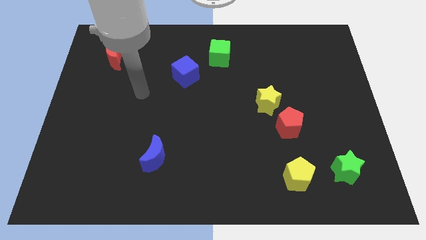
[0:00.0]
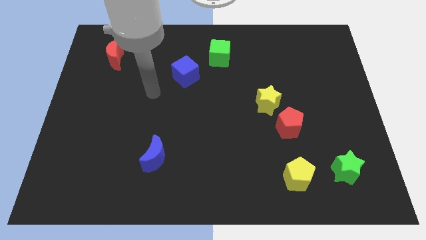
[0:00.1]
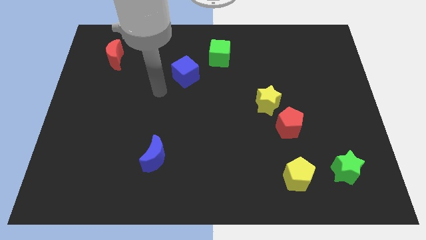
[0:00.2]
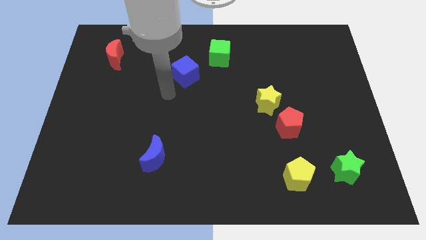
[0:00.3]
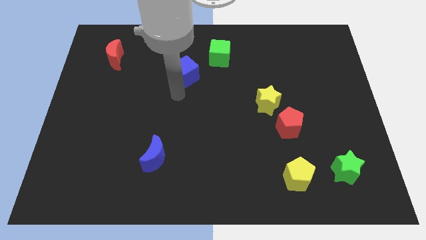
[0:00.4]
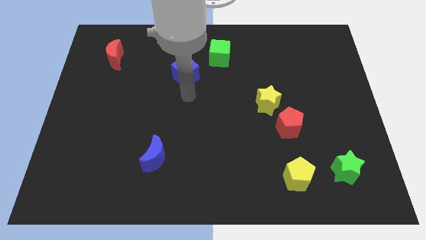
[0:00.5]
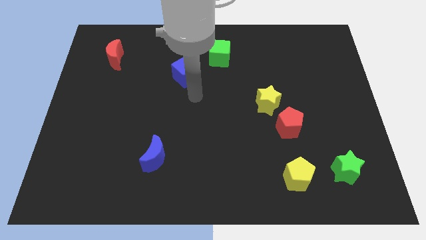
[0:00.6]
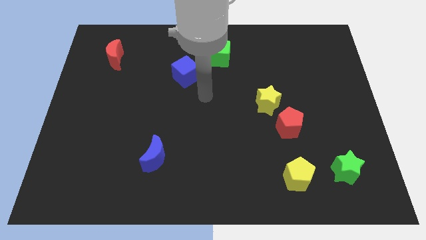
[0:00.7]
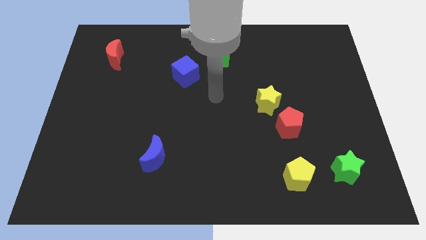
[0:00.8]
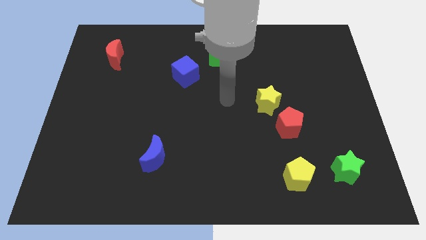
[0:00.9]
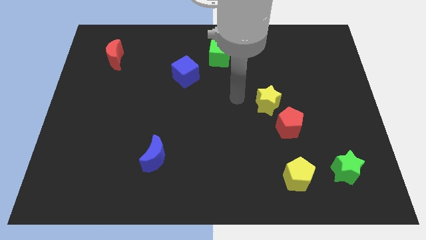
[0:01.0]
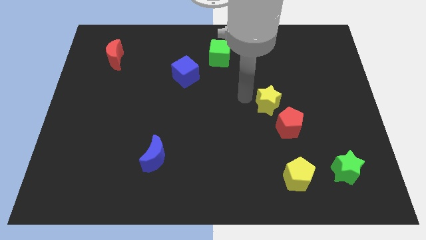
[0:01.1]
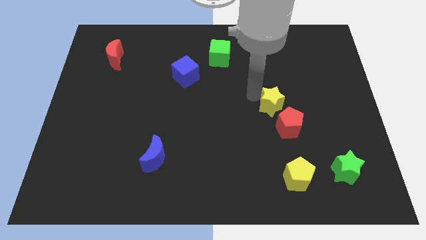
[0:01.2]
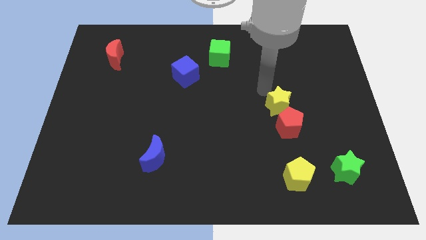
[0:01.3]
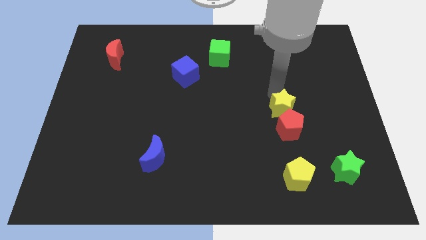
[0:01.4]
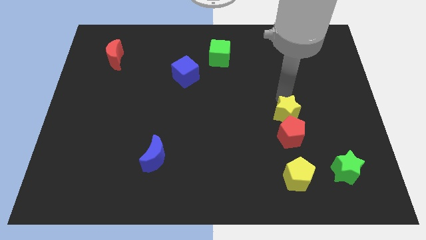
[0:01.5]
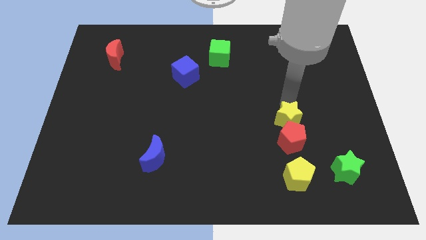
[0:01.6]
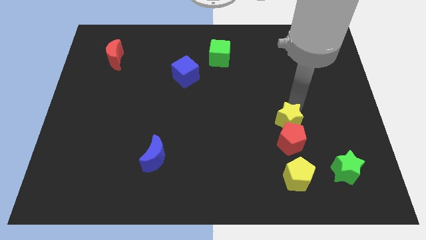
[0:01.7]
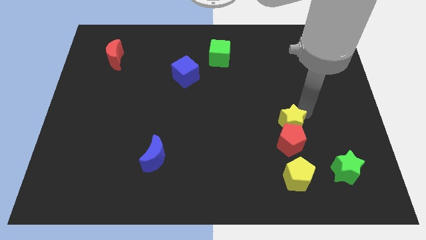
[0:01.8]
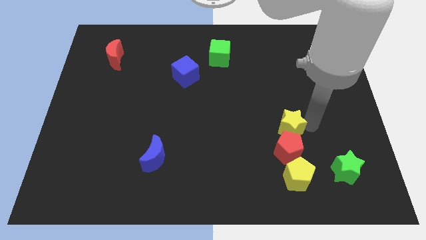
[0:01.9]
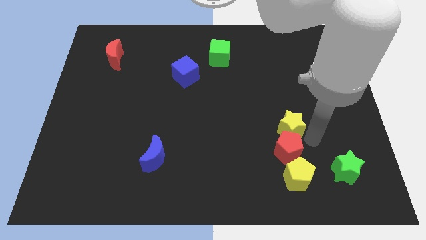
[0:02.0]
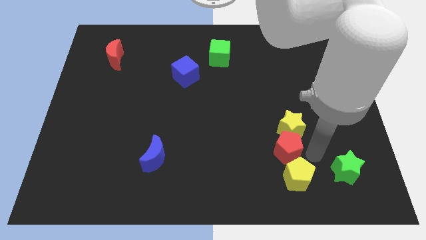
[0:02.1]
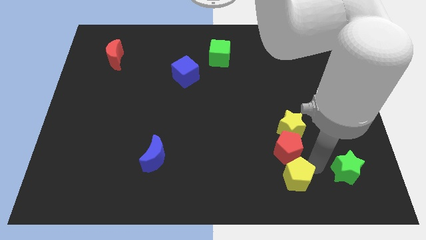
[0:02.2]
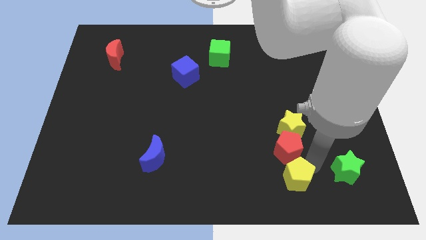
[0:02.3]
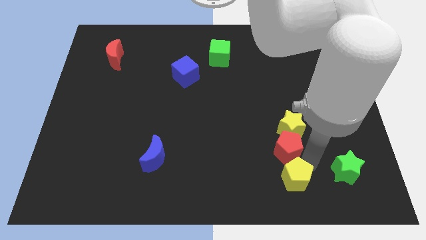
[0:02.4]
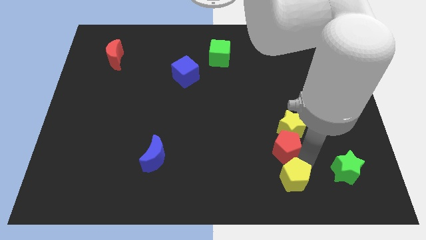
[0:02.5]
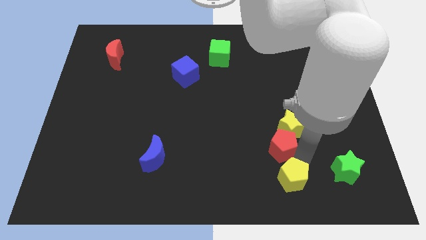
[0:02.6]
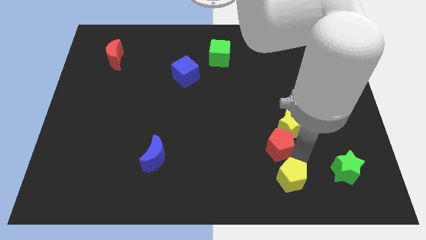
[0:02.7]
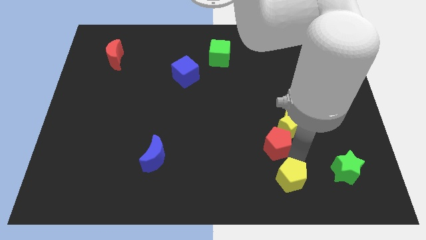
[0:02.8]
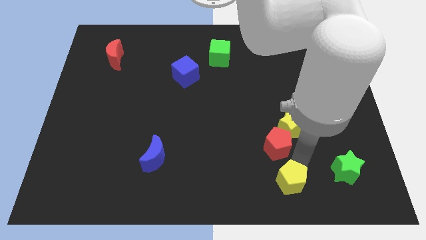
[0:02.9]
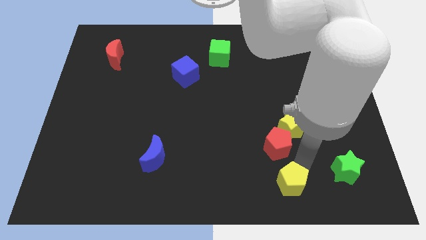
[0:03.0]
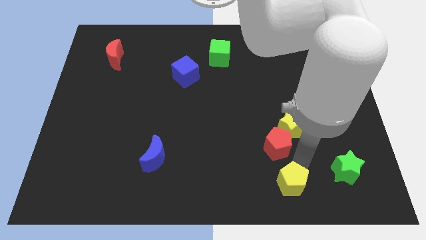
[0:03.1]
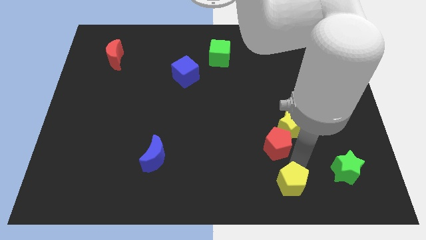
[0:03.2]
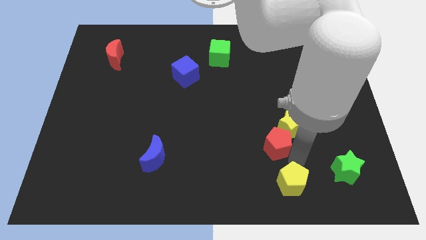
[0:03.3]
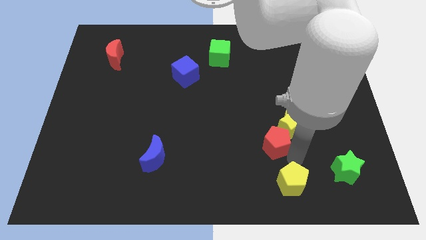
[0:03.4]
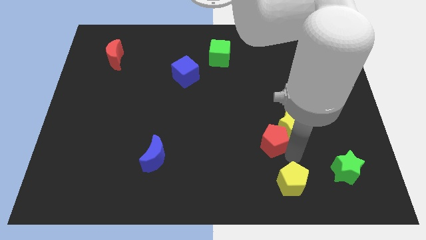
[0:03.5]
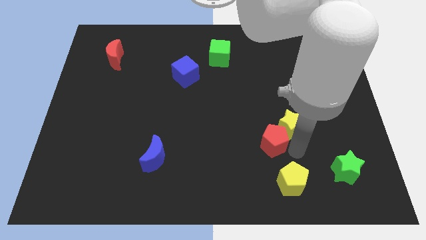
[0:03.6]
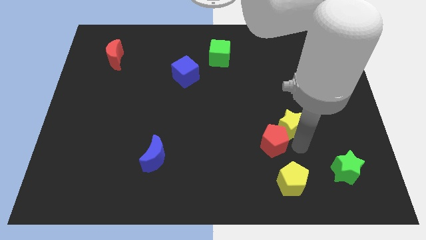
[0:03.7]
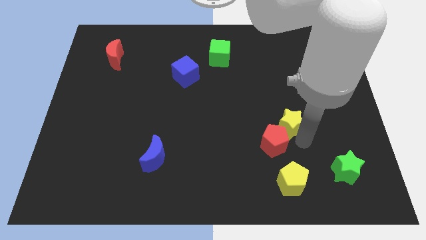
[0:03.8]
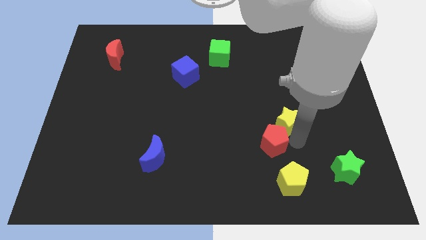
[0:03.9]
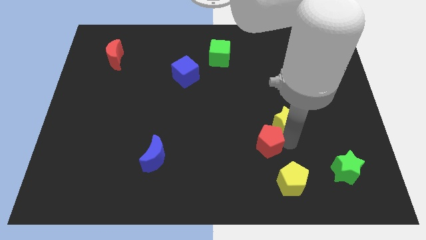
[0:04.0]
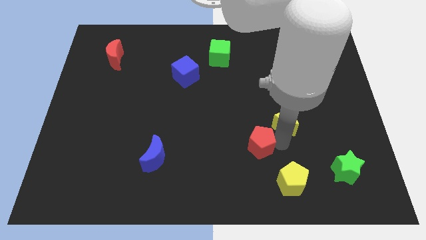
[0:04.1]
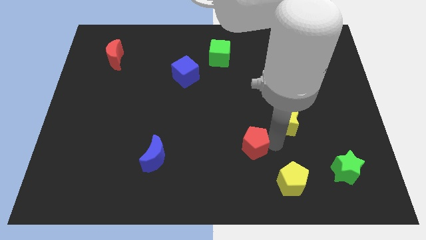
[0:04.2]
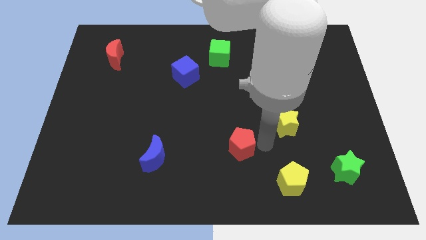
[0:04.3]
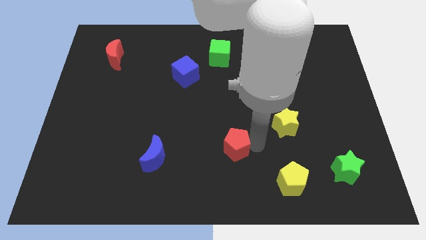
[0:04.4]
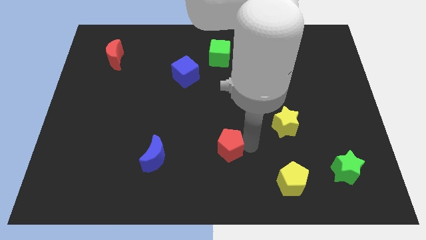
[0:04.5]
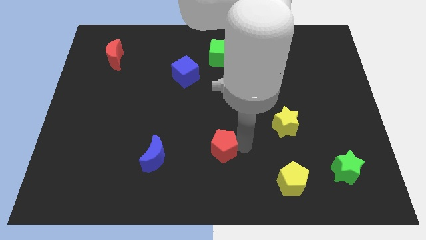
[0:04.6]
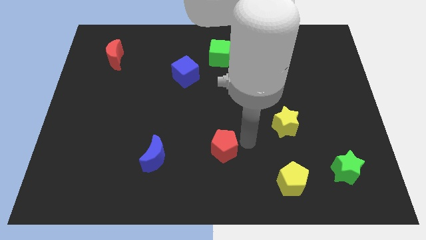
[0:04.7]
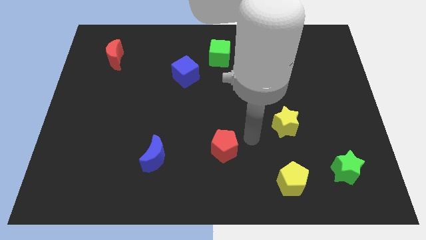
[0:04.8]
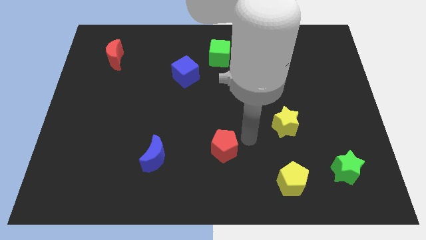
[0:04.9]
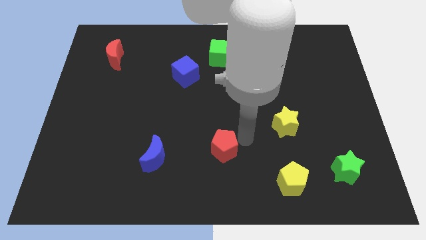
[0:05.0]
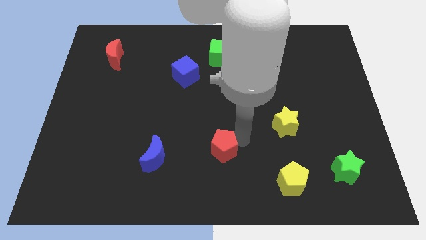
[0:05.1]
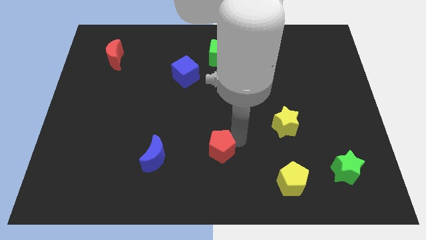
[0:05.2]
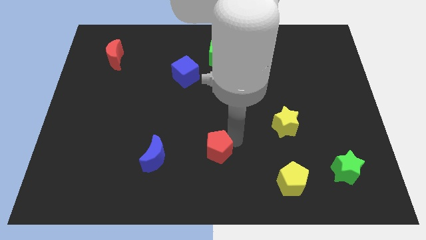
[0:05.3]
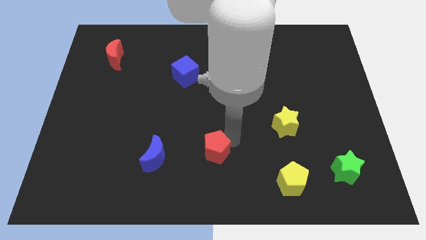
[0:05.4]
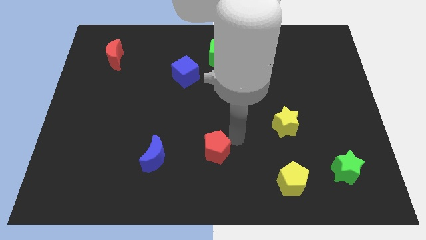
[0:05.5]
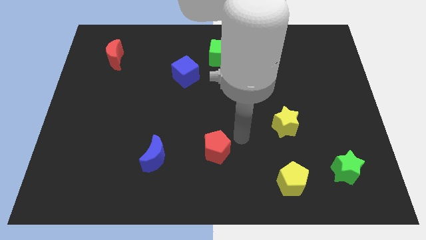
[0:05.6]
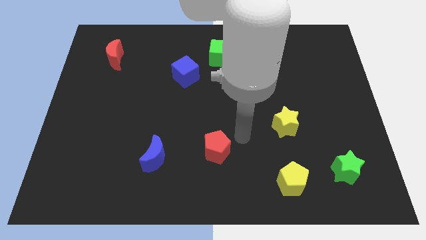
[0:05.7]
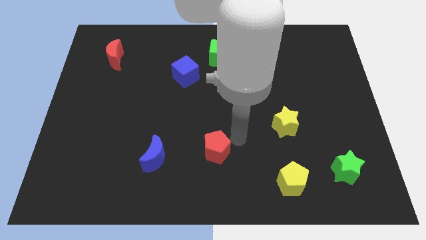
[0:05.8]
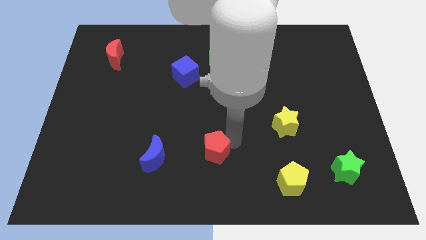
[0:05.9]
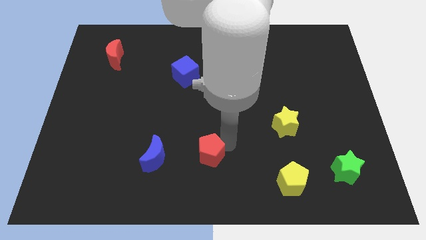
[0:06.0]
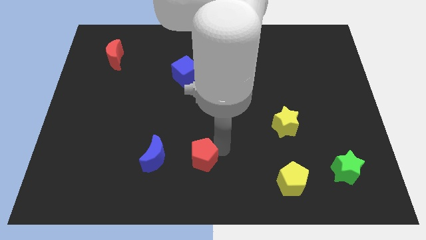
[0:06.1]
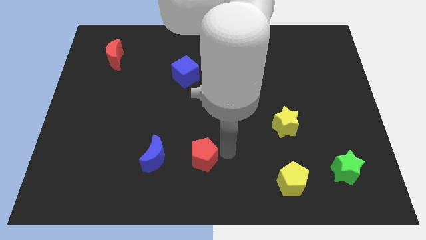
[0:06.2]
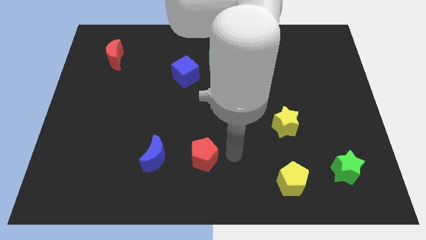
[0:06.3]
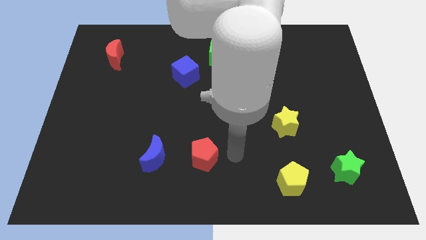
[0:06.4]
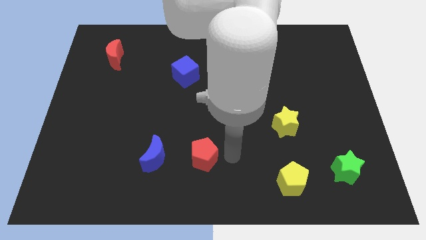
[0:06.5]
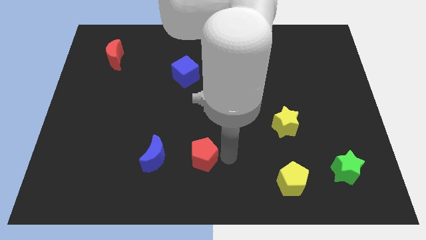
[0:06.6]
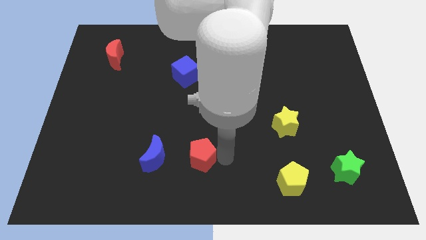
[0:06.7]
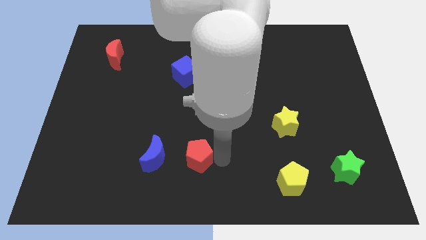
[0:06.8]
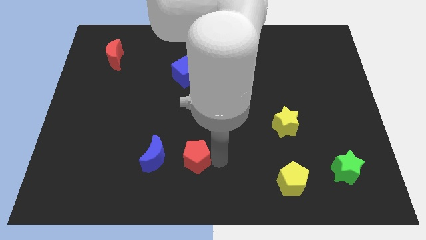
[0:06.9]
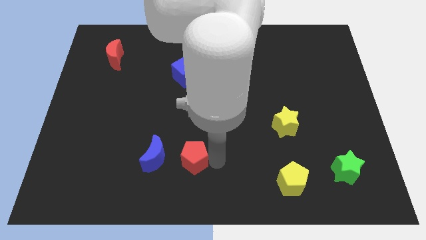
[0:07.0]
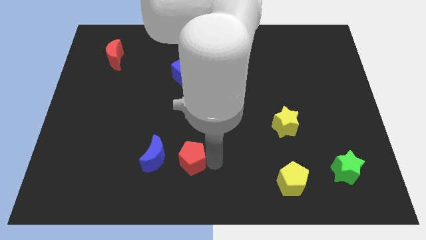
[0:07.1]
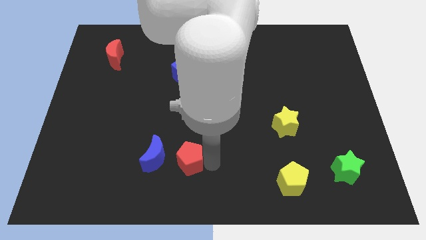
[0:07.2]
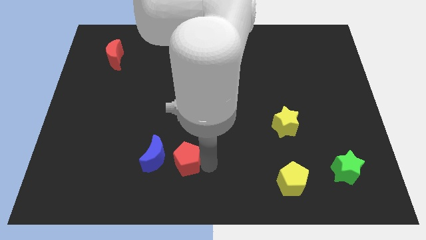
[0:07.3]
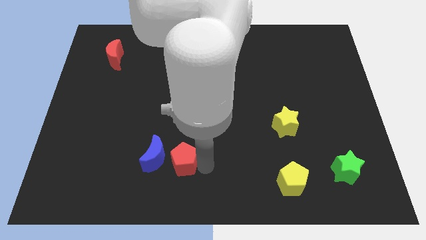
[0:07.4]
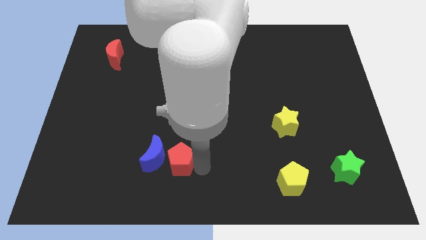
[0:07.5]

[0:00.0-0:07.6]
push the red pentagon towards the blue moon

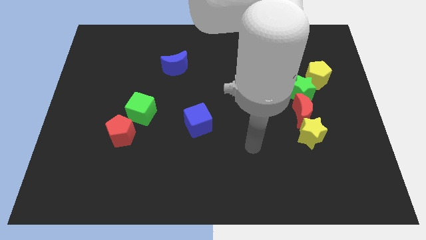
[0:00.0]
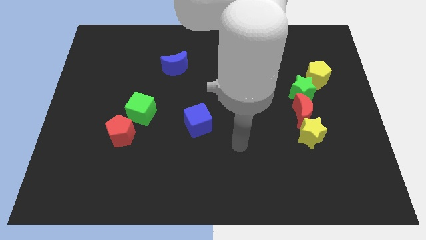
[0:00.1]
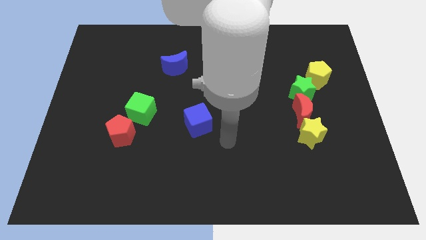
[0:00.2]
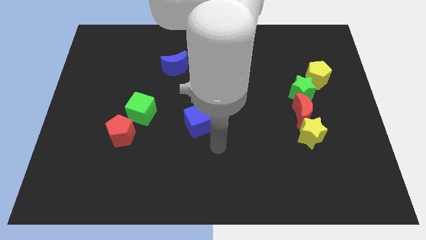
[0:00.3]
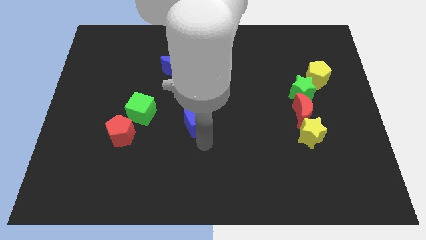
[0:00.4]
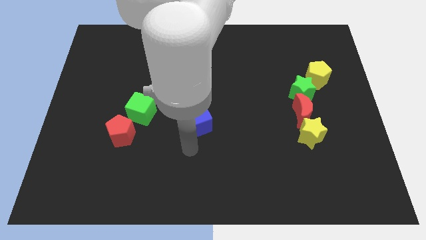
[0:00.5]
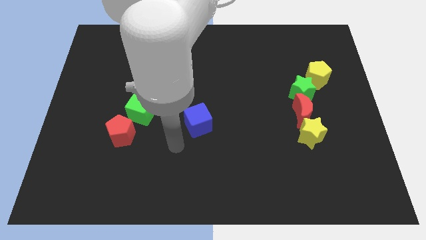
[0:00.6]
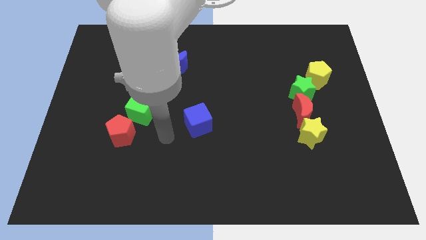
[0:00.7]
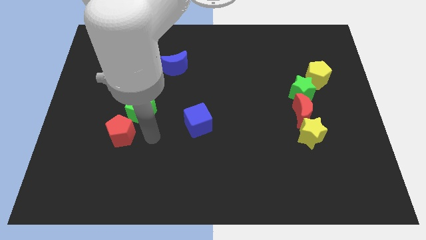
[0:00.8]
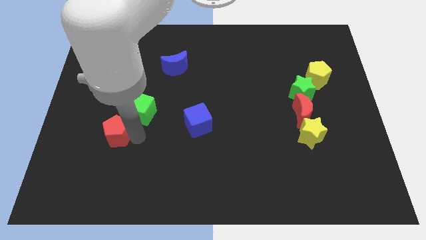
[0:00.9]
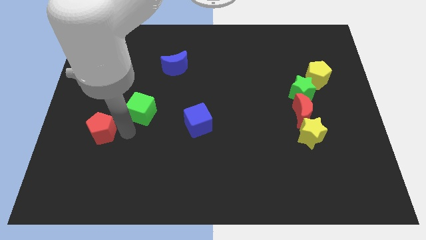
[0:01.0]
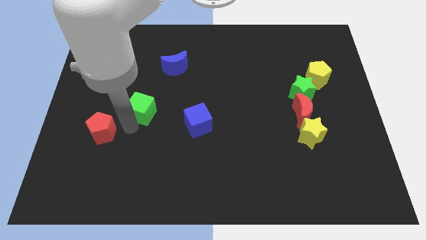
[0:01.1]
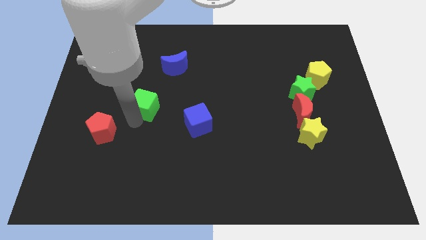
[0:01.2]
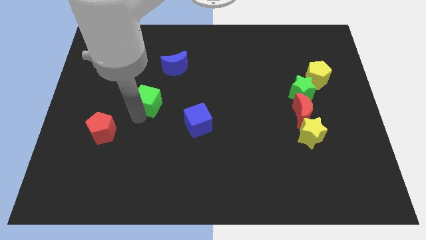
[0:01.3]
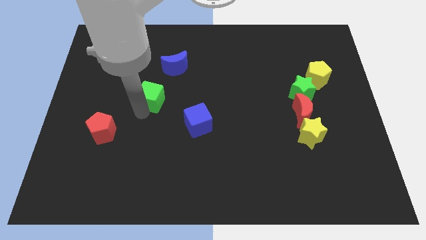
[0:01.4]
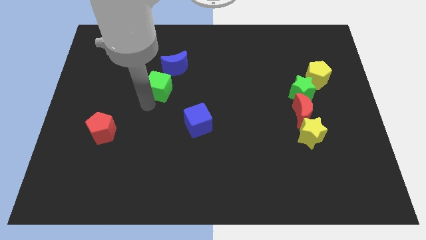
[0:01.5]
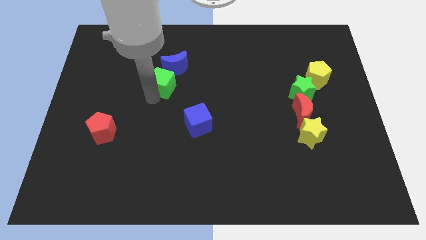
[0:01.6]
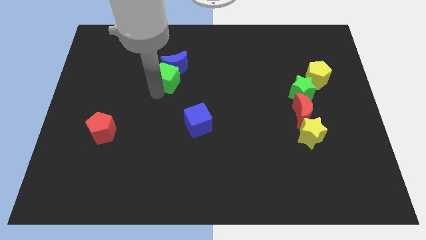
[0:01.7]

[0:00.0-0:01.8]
move the green cube close to the blue moon
